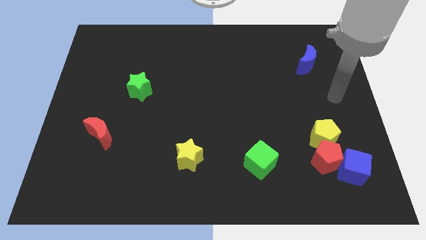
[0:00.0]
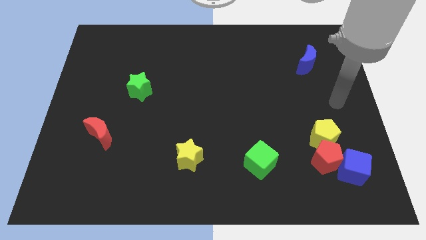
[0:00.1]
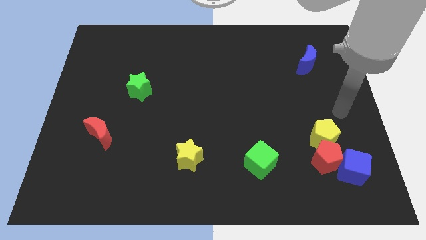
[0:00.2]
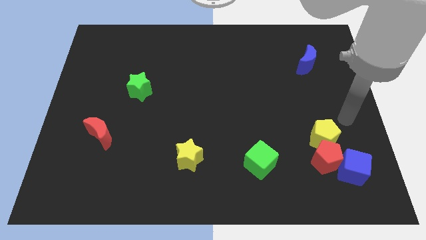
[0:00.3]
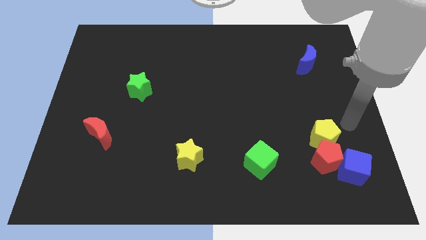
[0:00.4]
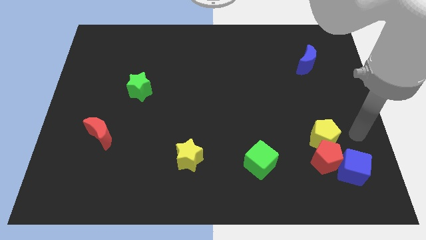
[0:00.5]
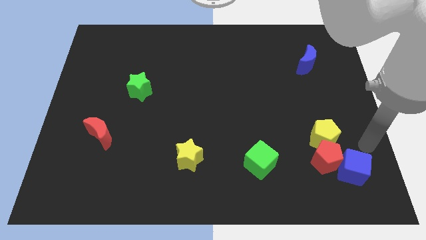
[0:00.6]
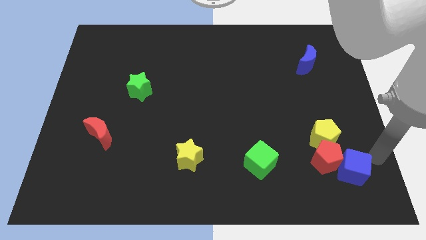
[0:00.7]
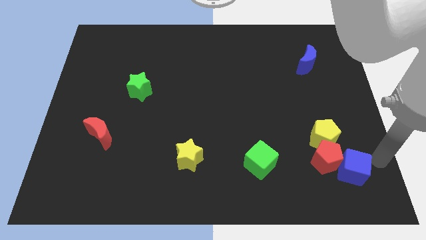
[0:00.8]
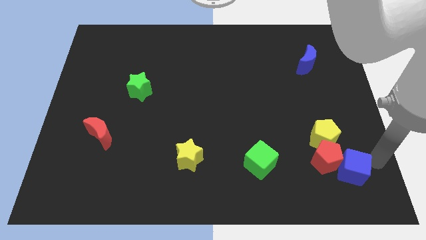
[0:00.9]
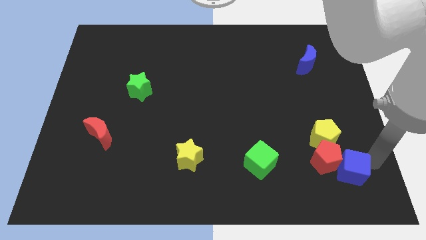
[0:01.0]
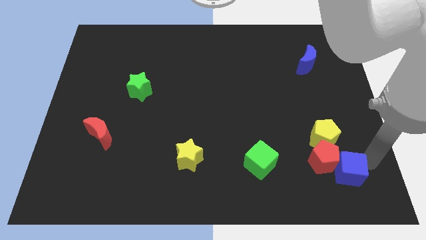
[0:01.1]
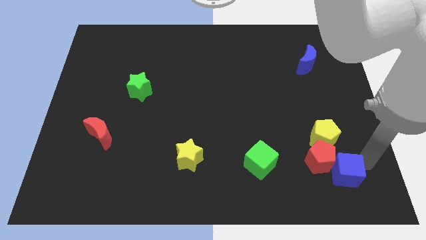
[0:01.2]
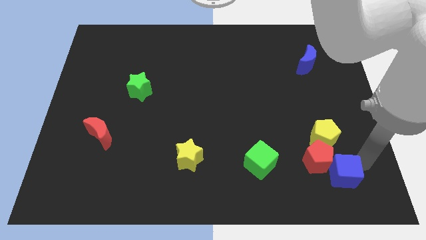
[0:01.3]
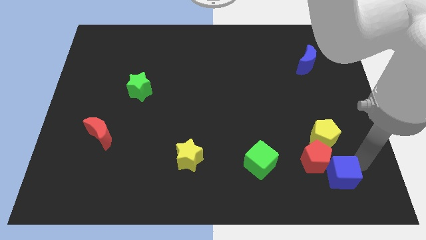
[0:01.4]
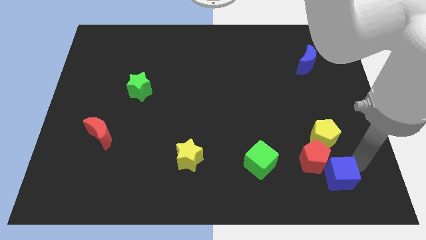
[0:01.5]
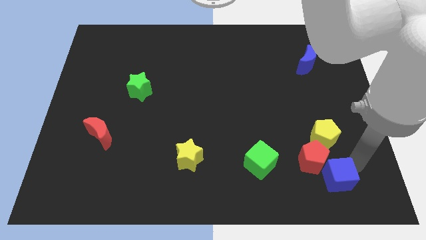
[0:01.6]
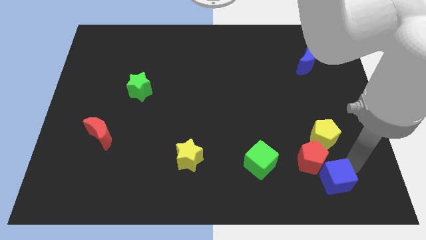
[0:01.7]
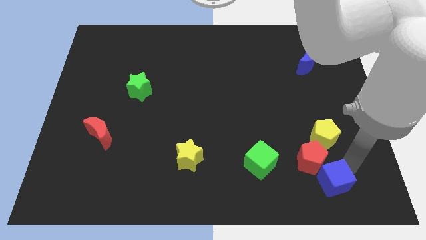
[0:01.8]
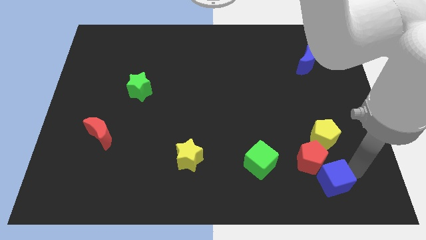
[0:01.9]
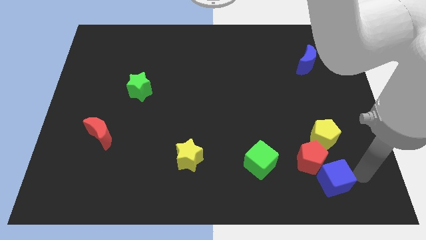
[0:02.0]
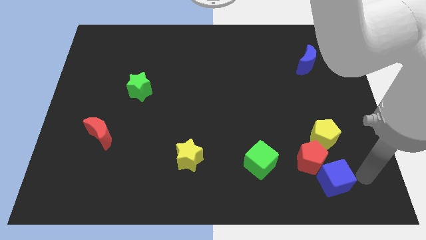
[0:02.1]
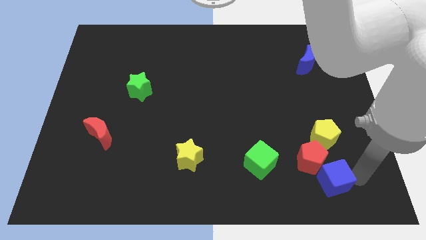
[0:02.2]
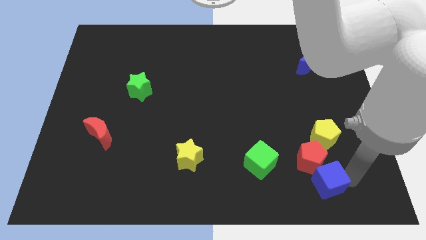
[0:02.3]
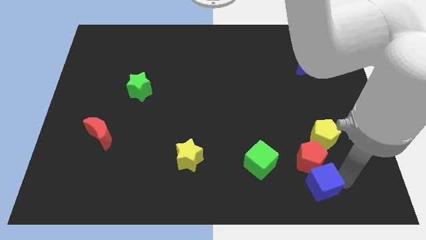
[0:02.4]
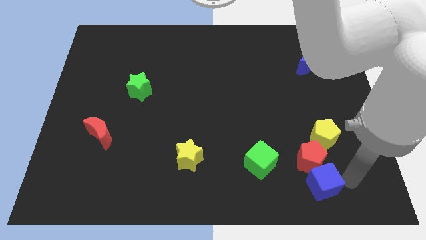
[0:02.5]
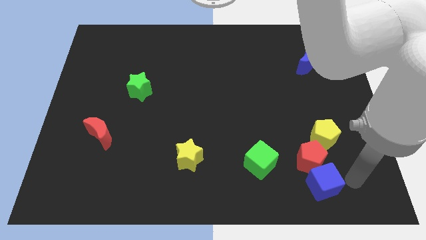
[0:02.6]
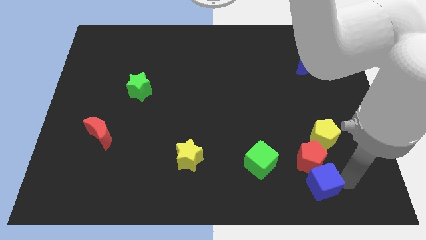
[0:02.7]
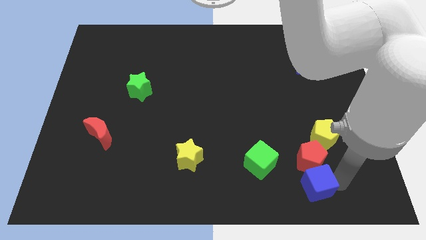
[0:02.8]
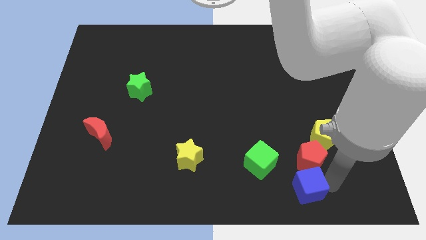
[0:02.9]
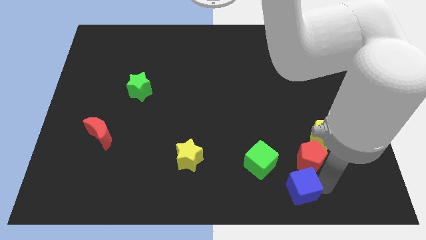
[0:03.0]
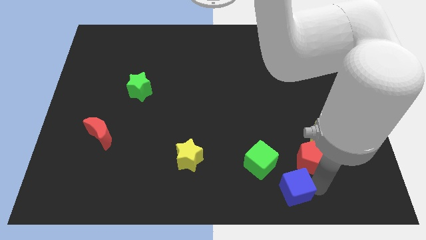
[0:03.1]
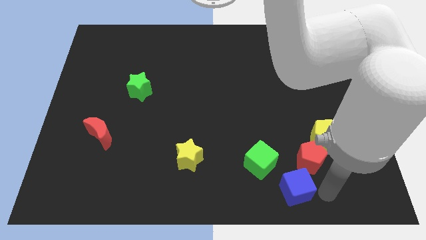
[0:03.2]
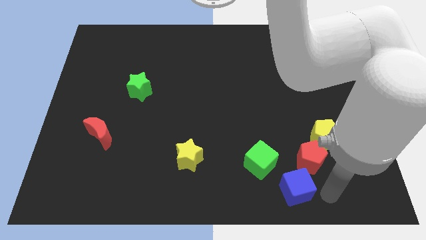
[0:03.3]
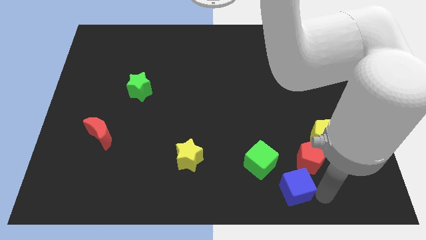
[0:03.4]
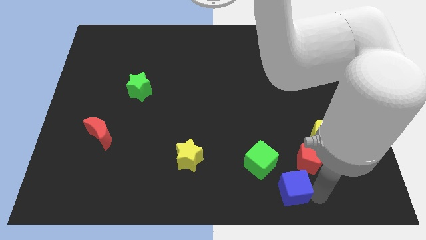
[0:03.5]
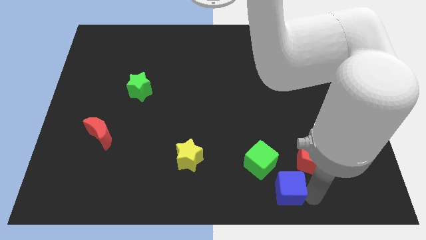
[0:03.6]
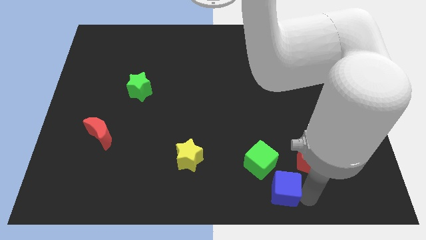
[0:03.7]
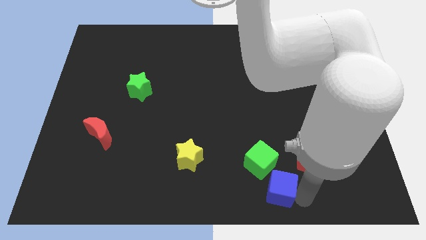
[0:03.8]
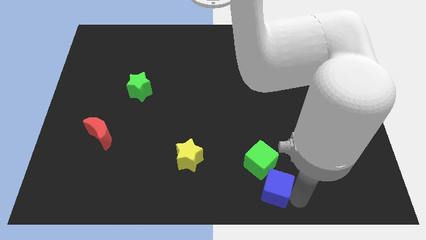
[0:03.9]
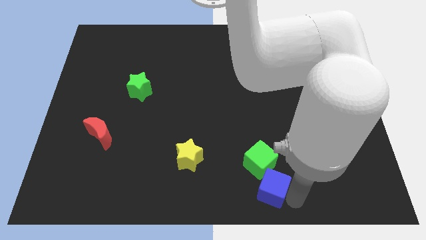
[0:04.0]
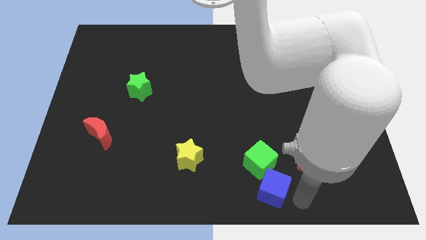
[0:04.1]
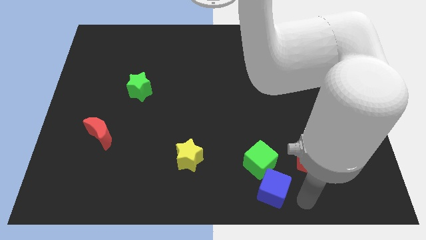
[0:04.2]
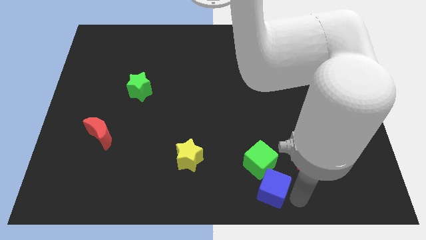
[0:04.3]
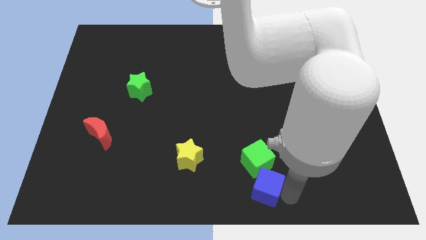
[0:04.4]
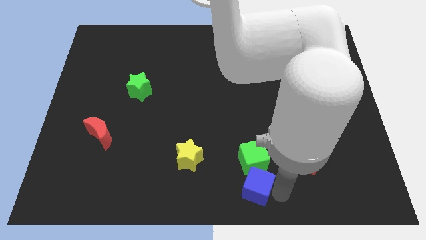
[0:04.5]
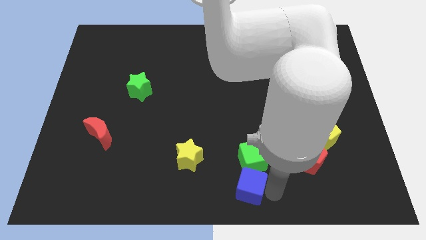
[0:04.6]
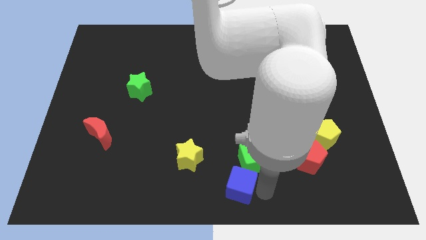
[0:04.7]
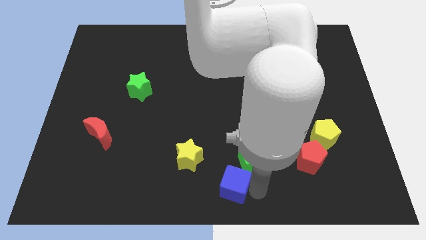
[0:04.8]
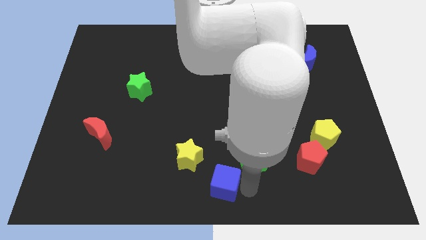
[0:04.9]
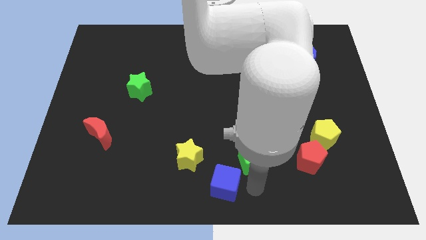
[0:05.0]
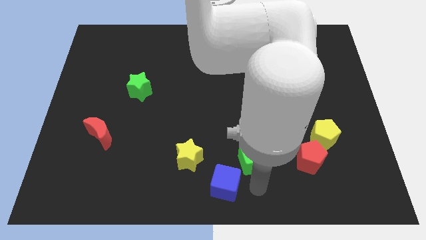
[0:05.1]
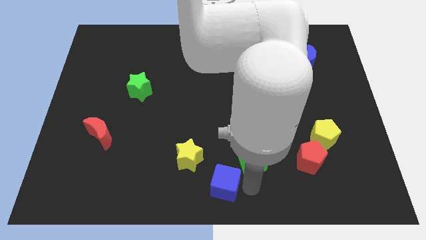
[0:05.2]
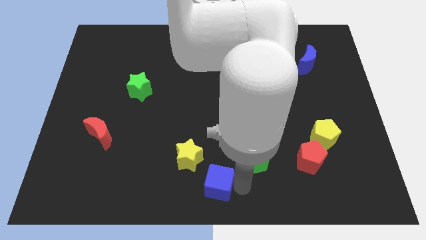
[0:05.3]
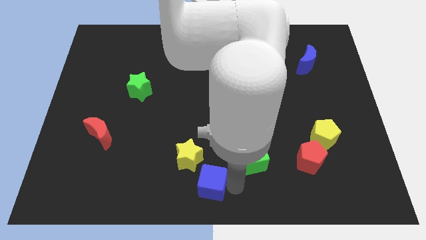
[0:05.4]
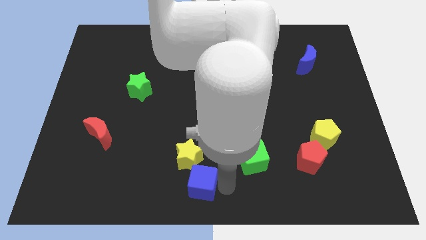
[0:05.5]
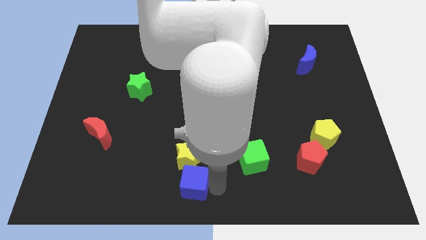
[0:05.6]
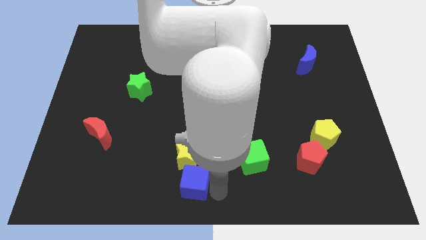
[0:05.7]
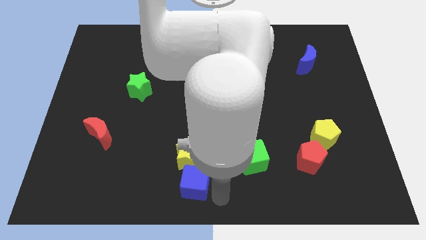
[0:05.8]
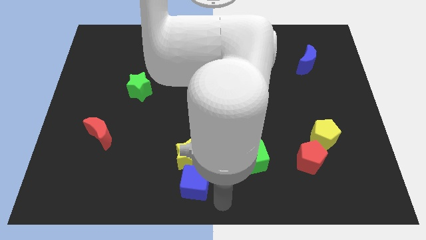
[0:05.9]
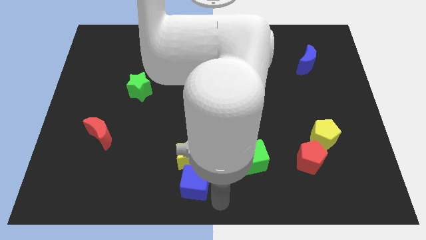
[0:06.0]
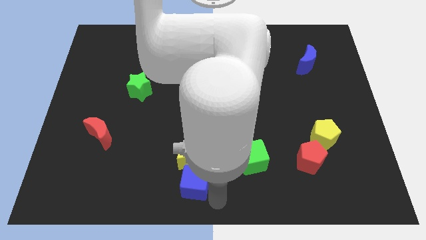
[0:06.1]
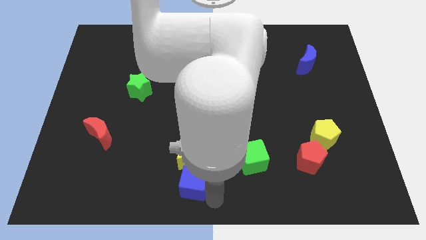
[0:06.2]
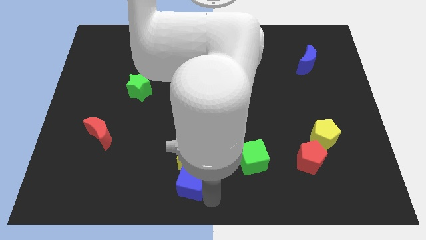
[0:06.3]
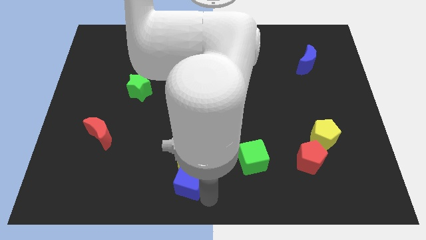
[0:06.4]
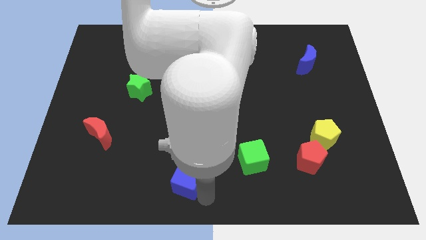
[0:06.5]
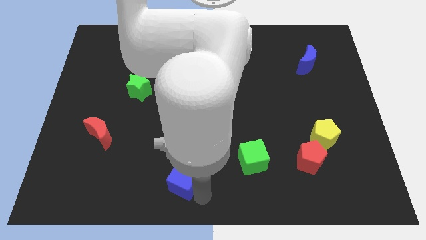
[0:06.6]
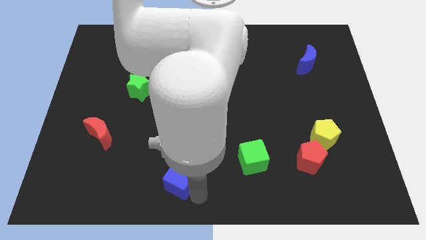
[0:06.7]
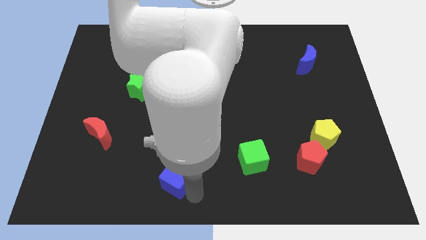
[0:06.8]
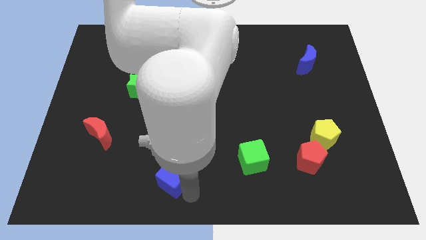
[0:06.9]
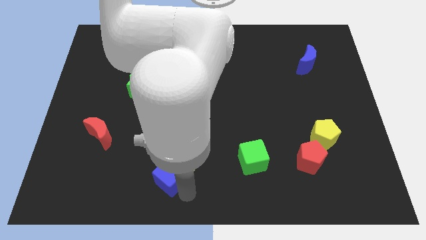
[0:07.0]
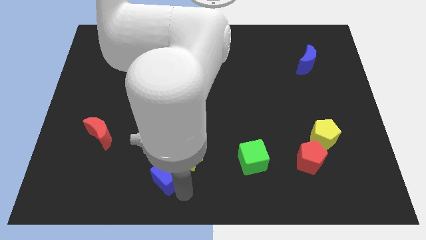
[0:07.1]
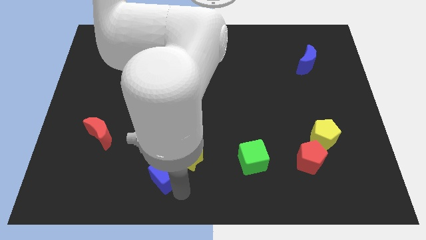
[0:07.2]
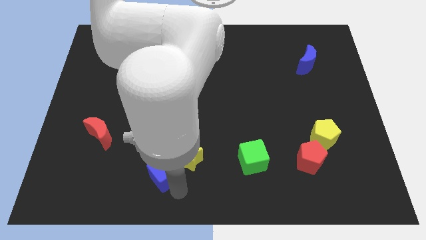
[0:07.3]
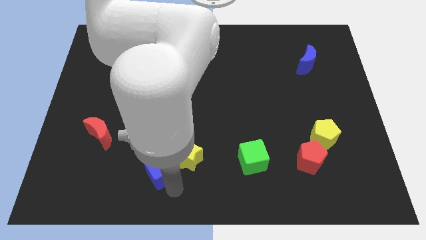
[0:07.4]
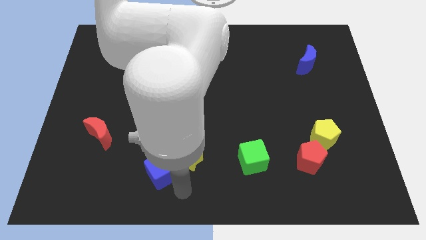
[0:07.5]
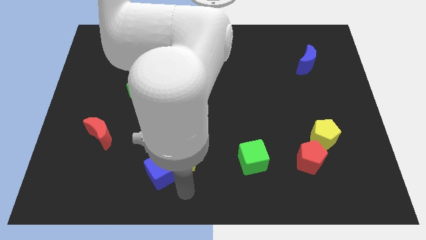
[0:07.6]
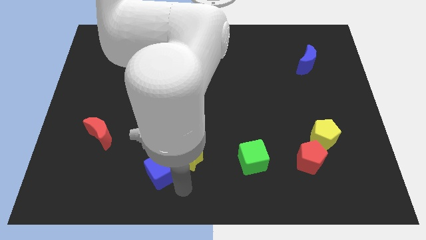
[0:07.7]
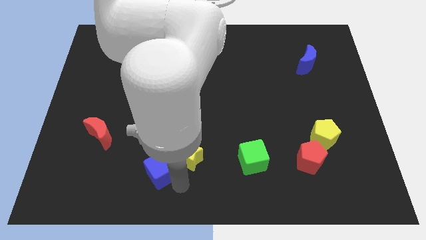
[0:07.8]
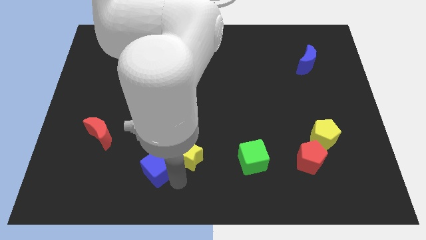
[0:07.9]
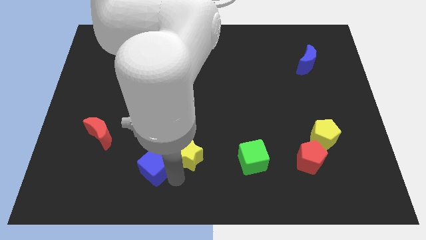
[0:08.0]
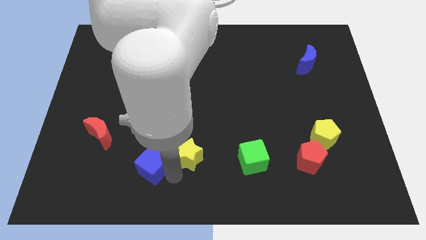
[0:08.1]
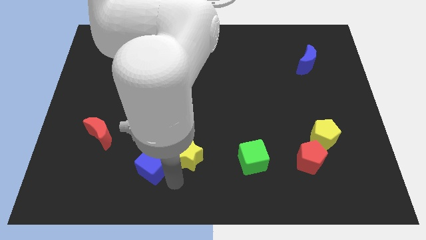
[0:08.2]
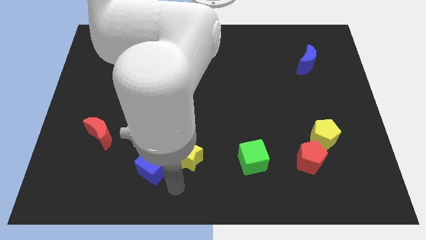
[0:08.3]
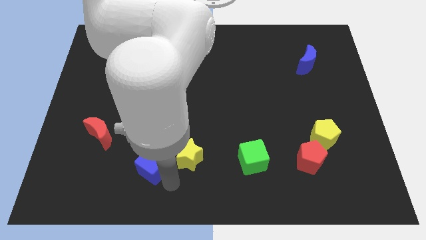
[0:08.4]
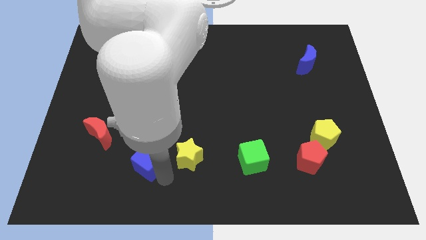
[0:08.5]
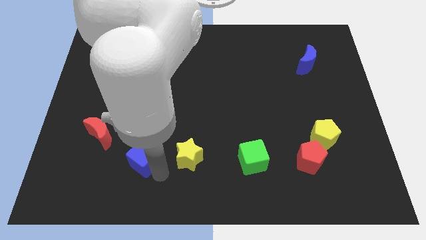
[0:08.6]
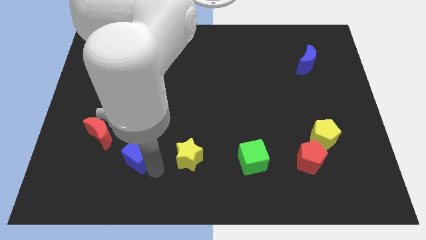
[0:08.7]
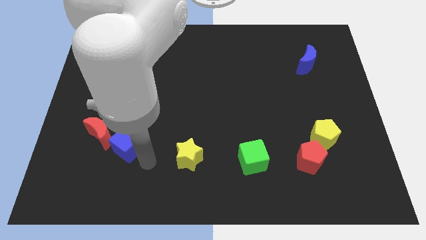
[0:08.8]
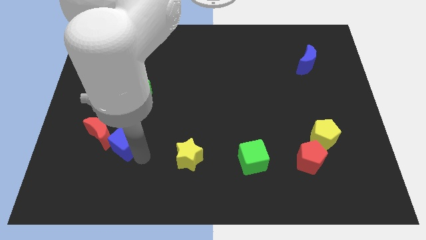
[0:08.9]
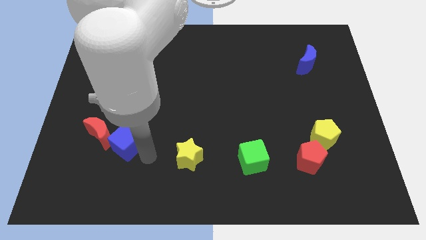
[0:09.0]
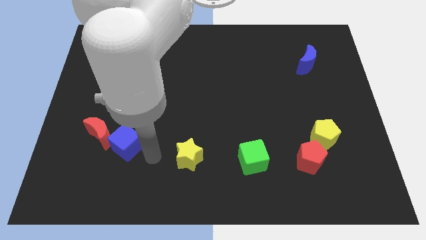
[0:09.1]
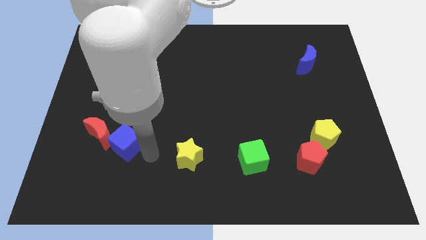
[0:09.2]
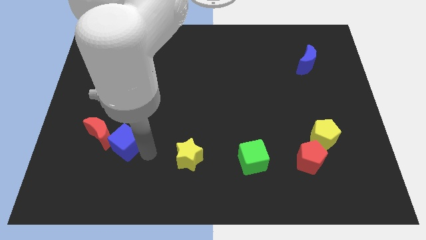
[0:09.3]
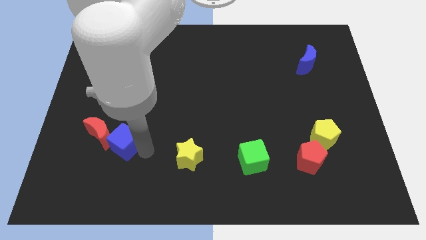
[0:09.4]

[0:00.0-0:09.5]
put the blue cube close to the red moon
